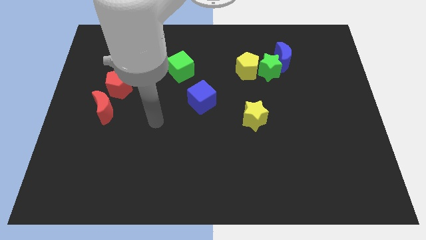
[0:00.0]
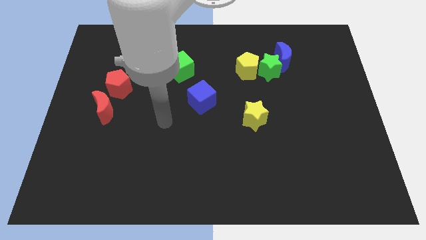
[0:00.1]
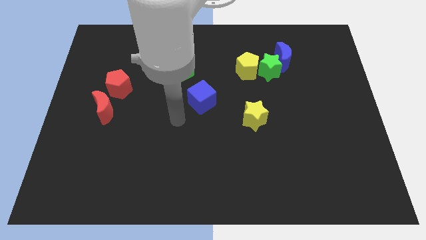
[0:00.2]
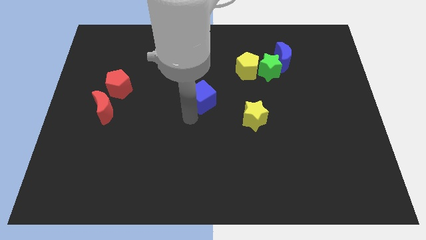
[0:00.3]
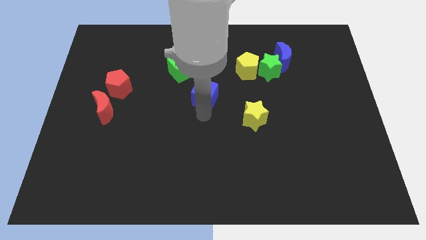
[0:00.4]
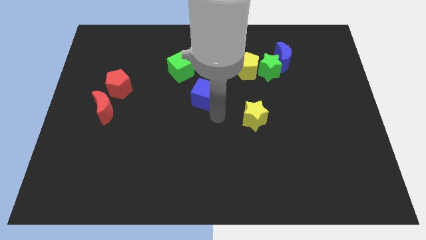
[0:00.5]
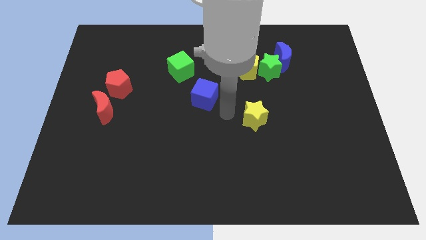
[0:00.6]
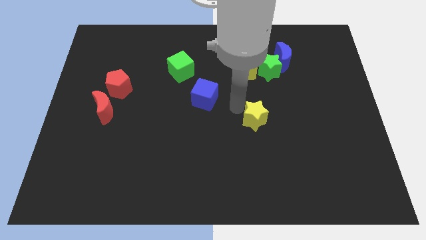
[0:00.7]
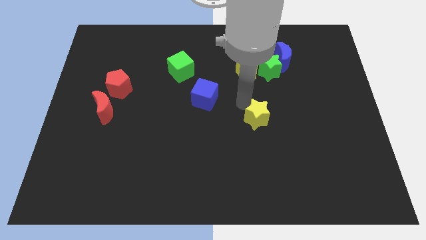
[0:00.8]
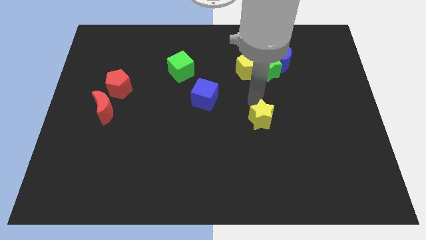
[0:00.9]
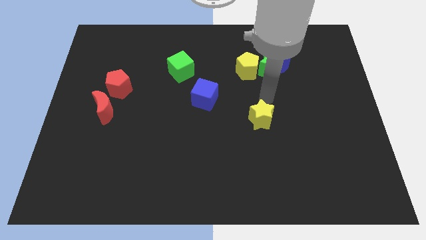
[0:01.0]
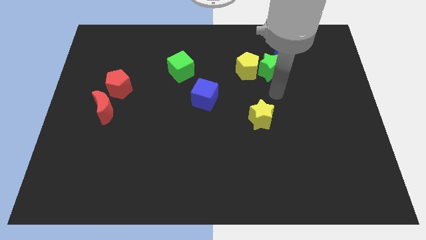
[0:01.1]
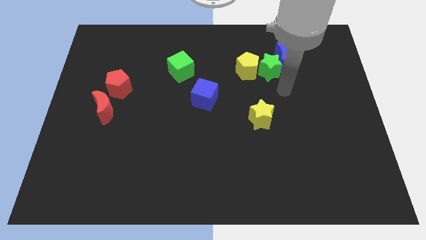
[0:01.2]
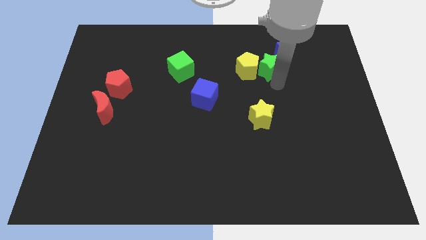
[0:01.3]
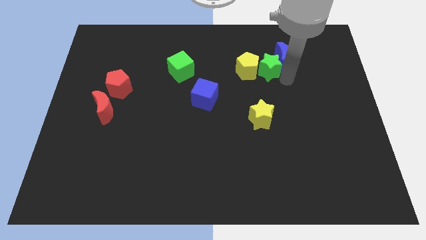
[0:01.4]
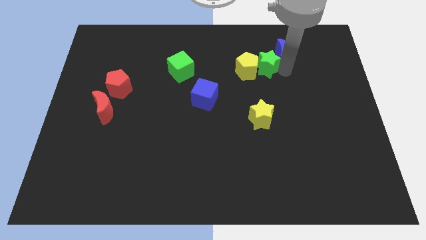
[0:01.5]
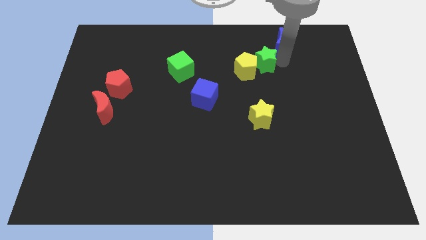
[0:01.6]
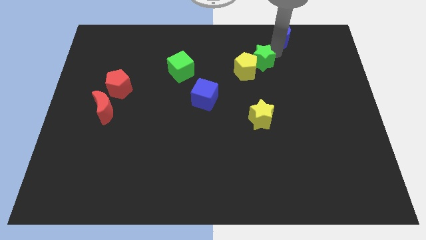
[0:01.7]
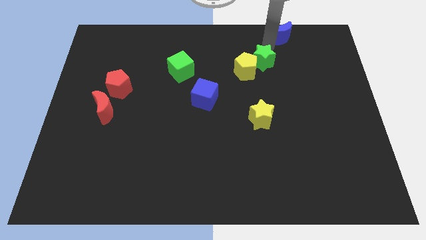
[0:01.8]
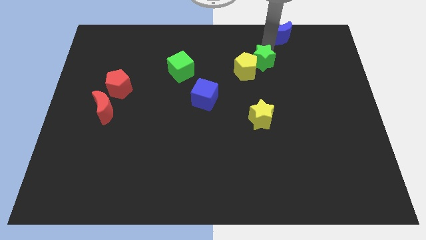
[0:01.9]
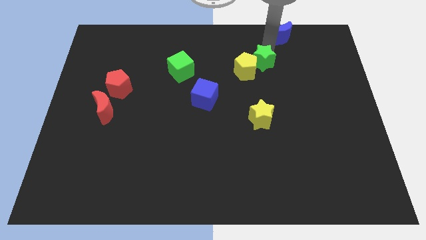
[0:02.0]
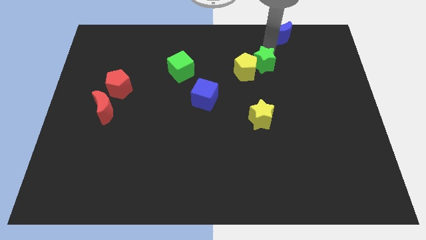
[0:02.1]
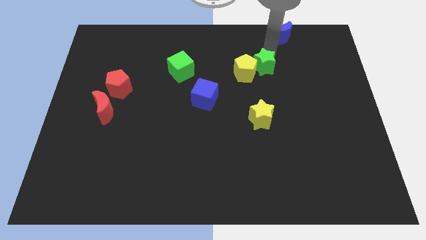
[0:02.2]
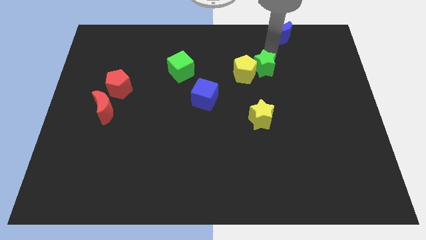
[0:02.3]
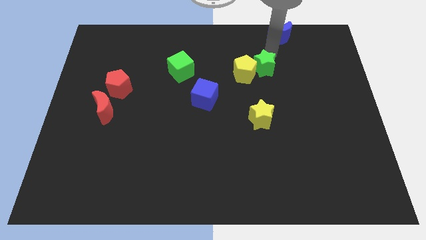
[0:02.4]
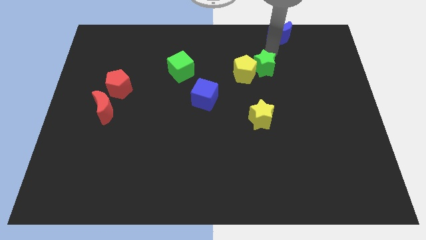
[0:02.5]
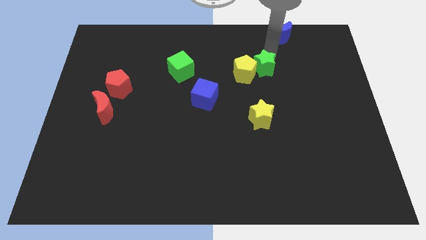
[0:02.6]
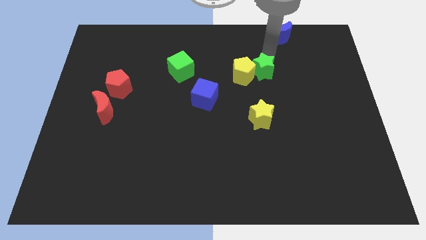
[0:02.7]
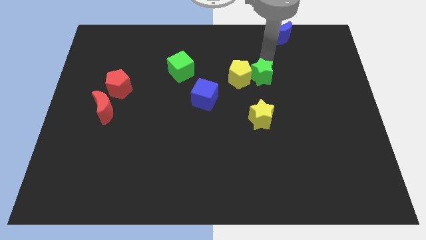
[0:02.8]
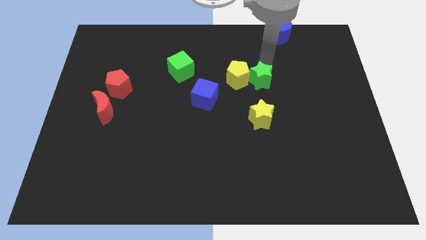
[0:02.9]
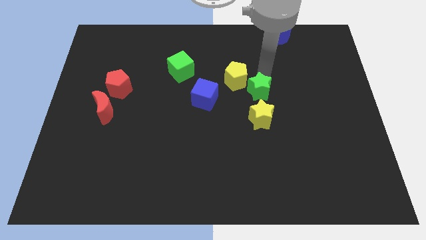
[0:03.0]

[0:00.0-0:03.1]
slightly slide the green star diagonally down and left

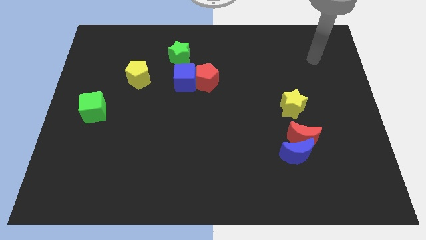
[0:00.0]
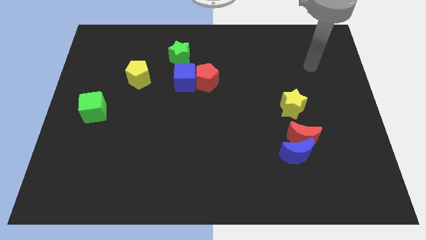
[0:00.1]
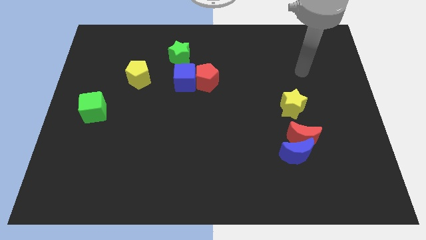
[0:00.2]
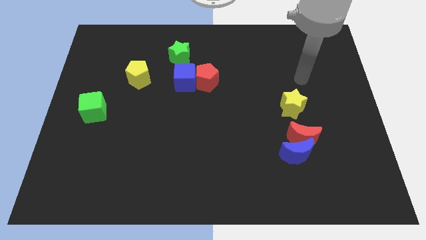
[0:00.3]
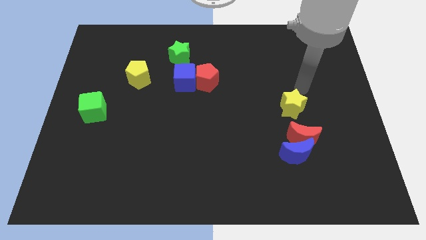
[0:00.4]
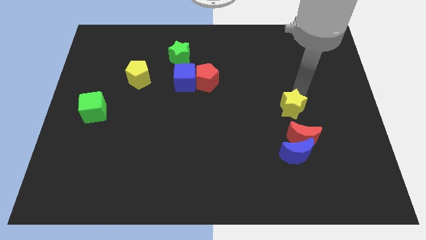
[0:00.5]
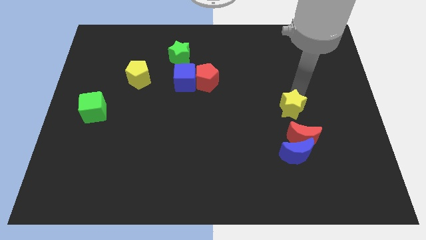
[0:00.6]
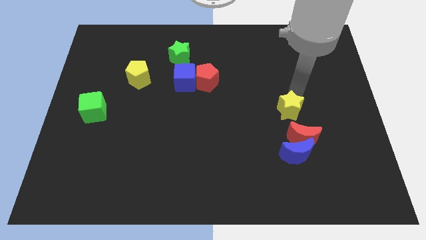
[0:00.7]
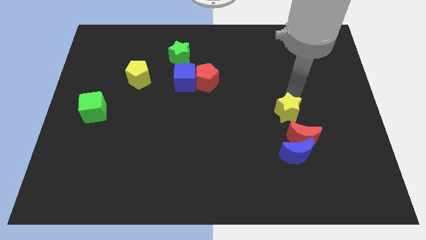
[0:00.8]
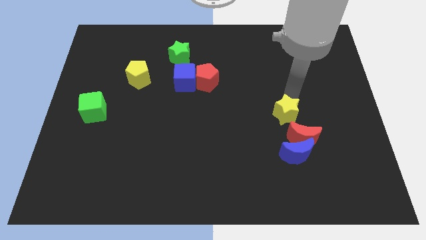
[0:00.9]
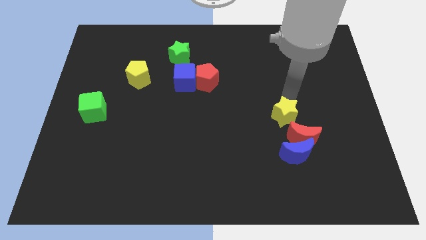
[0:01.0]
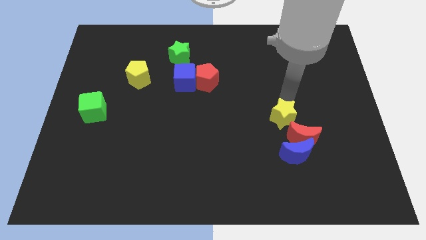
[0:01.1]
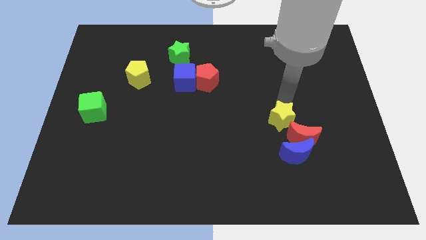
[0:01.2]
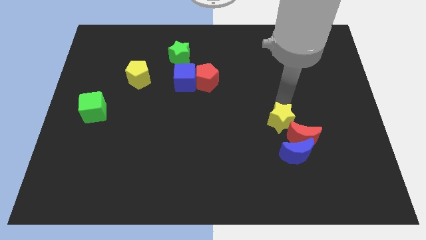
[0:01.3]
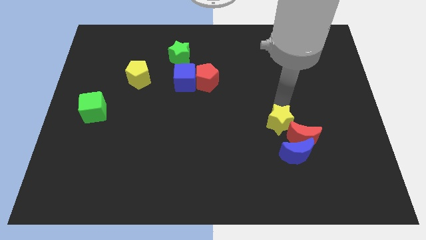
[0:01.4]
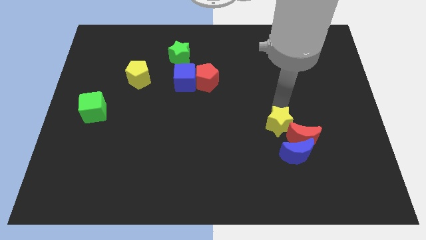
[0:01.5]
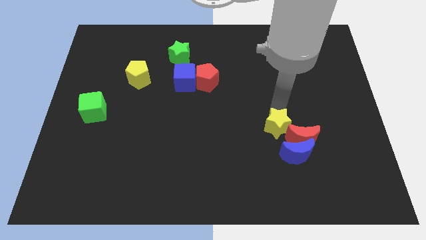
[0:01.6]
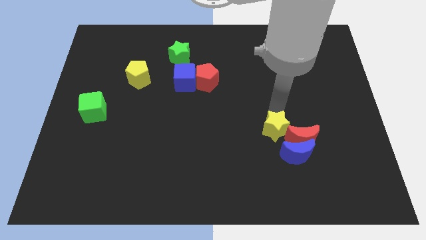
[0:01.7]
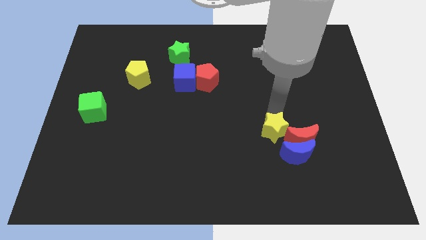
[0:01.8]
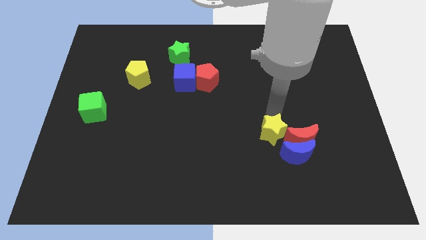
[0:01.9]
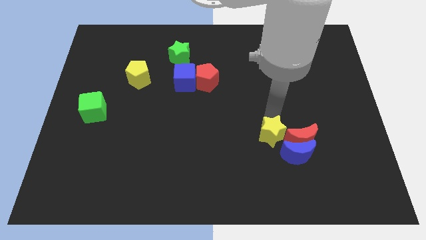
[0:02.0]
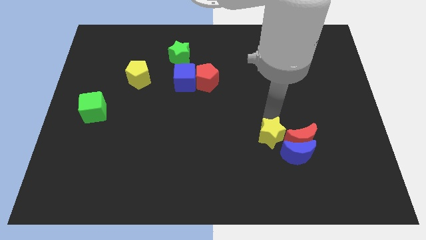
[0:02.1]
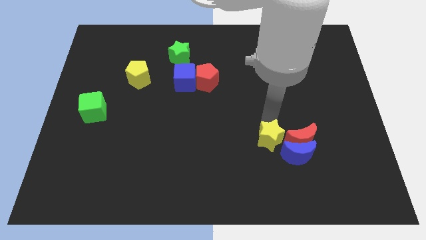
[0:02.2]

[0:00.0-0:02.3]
slide the yellow star somewhat downwards

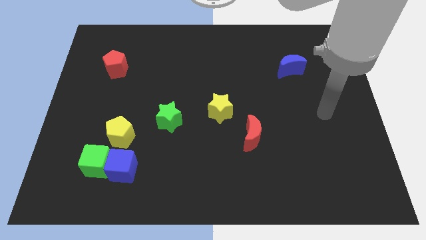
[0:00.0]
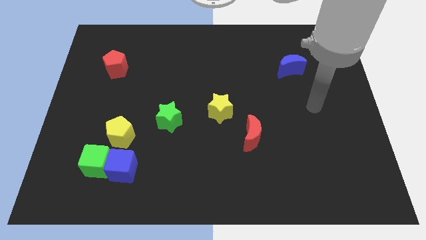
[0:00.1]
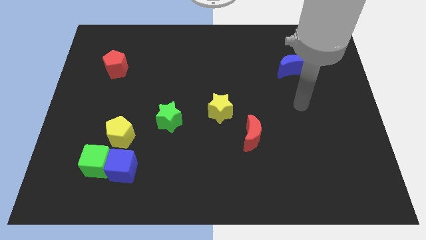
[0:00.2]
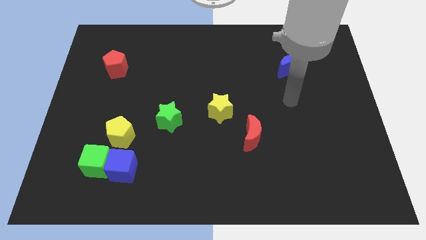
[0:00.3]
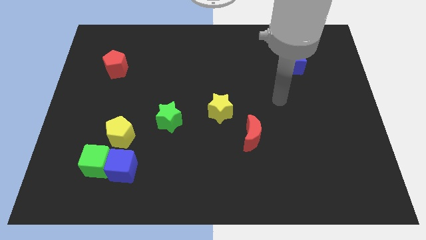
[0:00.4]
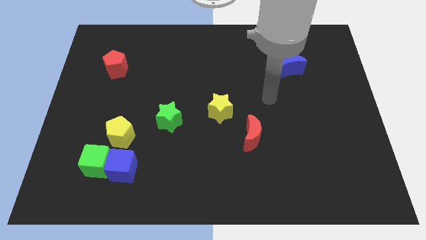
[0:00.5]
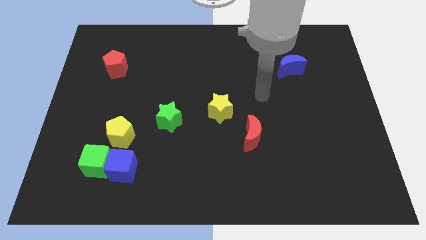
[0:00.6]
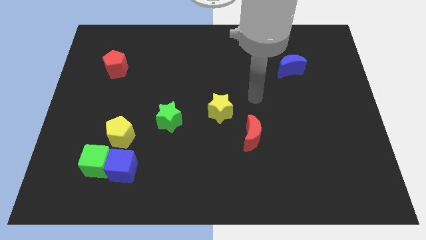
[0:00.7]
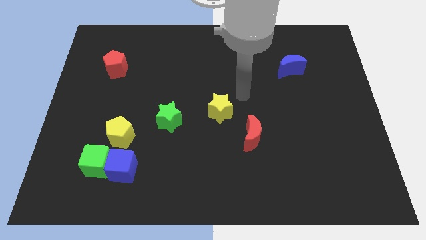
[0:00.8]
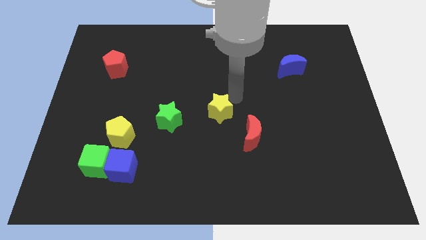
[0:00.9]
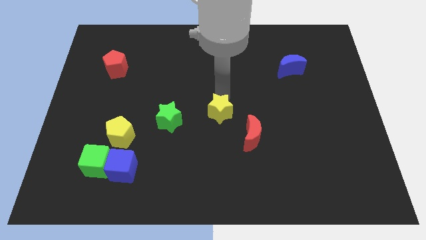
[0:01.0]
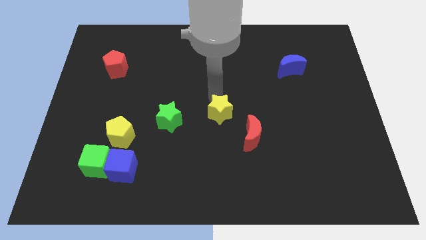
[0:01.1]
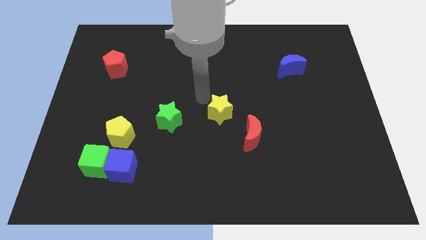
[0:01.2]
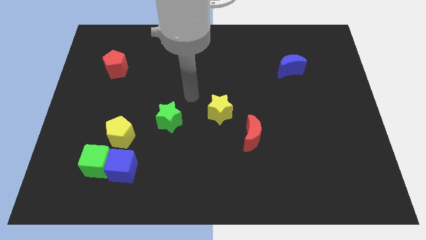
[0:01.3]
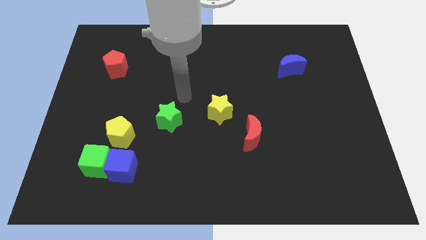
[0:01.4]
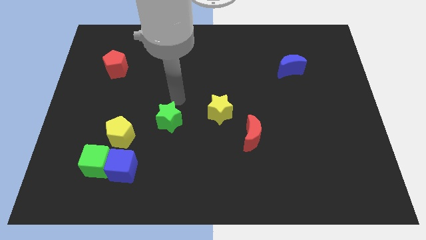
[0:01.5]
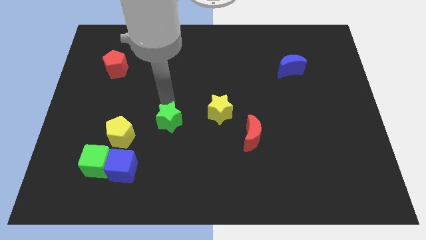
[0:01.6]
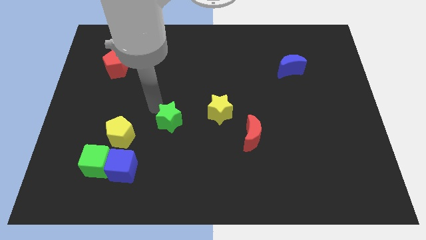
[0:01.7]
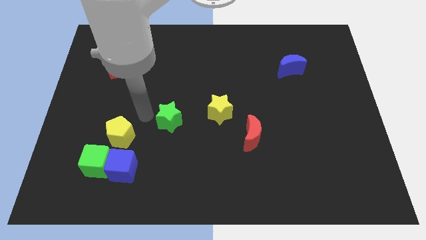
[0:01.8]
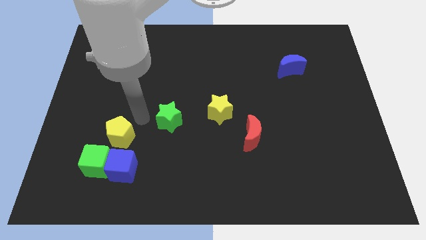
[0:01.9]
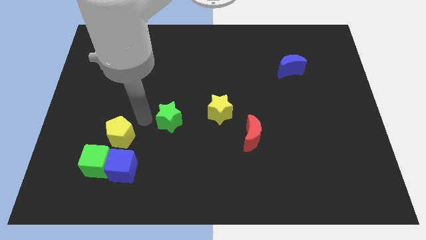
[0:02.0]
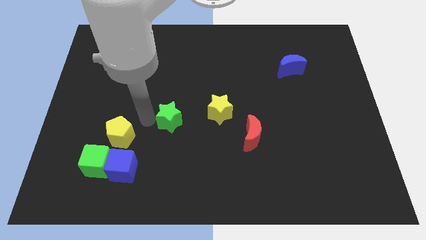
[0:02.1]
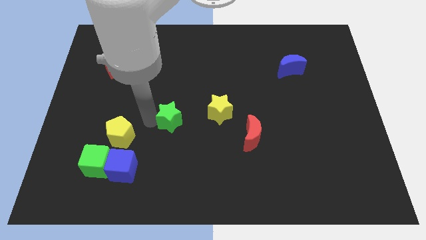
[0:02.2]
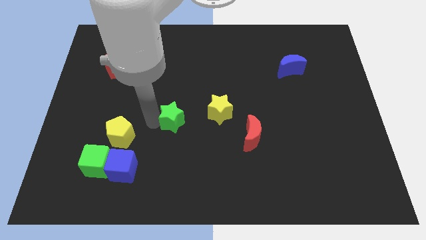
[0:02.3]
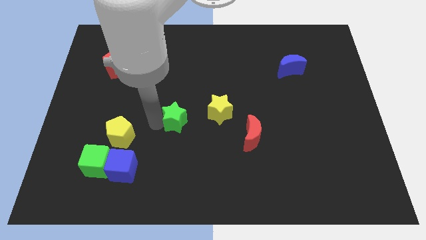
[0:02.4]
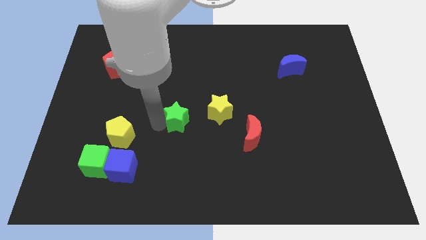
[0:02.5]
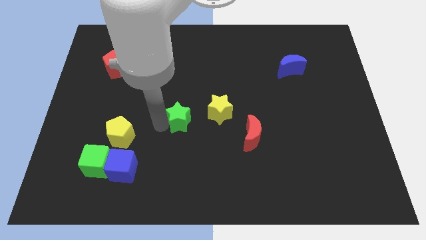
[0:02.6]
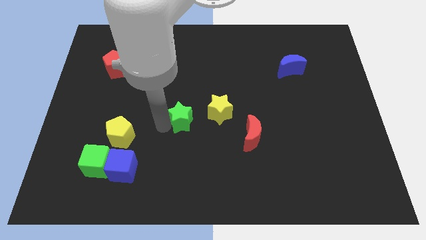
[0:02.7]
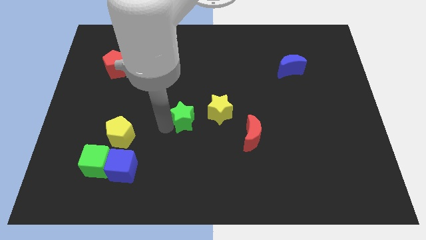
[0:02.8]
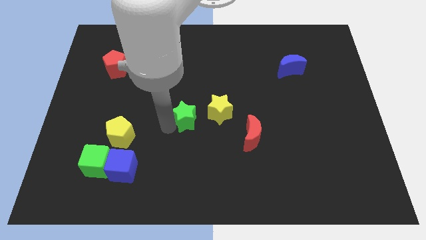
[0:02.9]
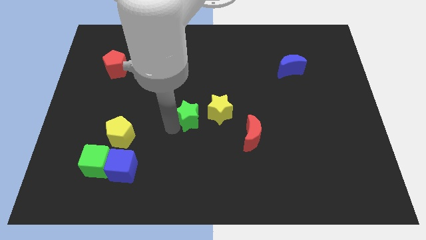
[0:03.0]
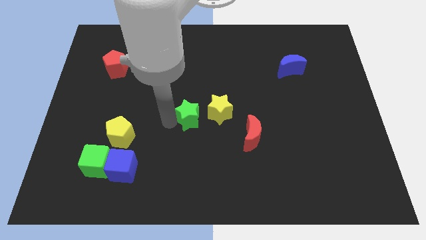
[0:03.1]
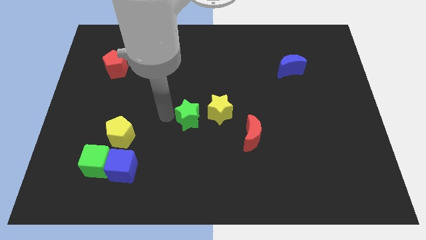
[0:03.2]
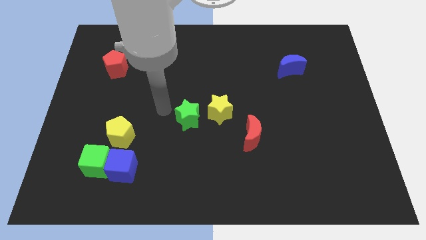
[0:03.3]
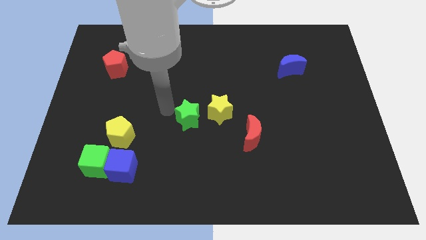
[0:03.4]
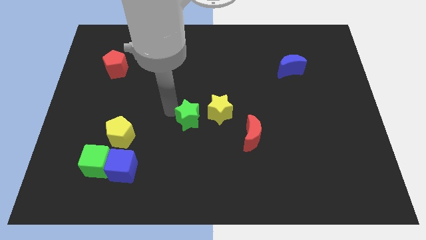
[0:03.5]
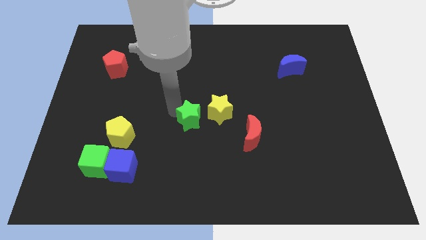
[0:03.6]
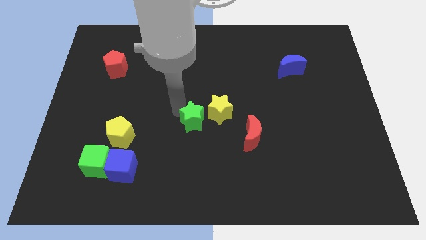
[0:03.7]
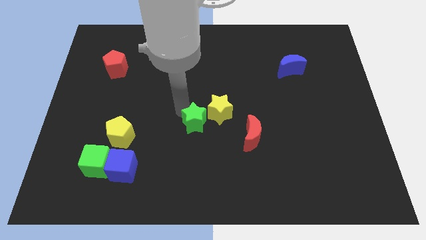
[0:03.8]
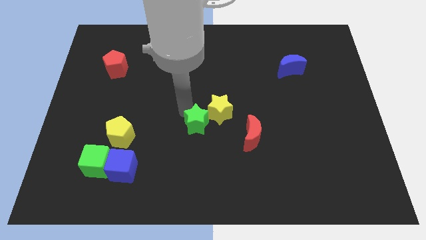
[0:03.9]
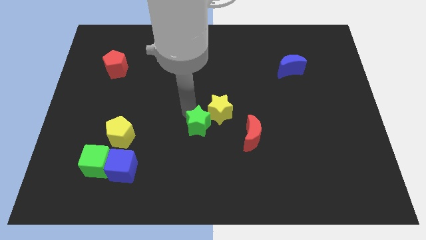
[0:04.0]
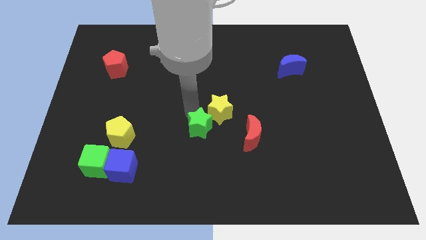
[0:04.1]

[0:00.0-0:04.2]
slide the green star slightly right
